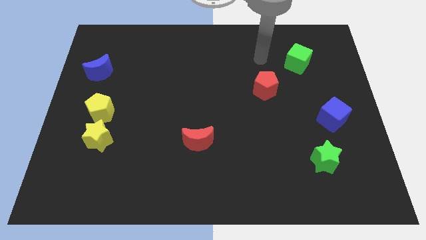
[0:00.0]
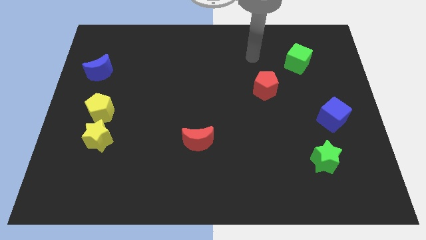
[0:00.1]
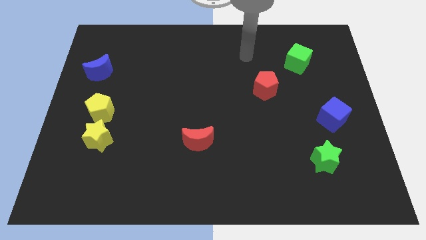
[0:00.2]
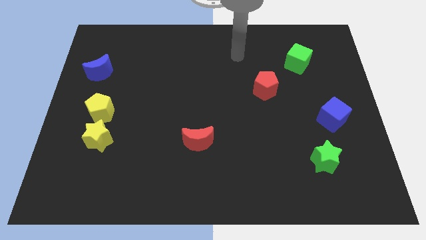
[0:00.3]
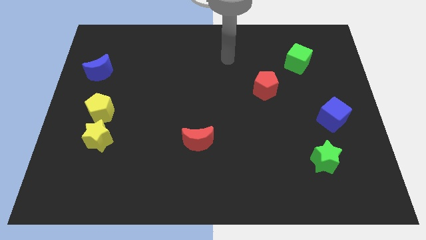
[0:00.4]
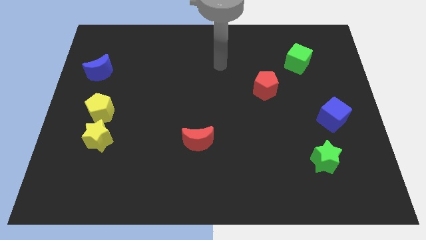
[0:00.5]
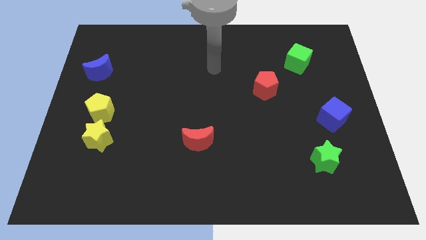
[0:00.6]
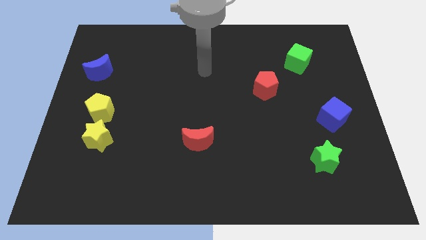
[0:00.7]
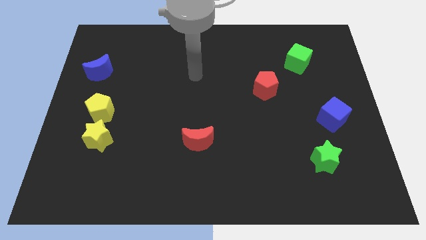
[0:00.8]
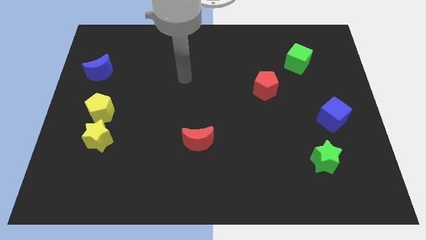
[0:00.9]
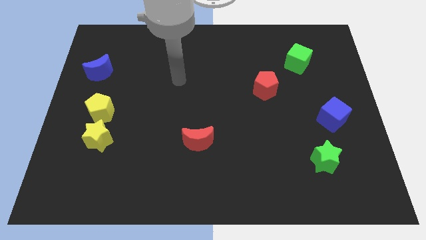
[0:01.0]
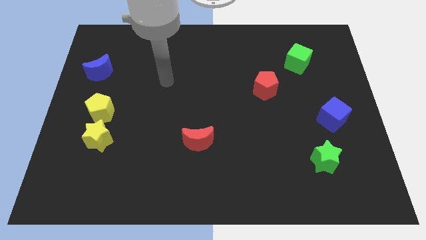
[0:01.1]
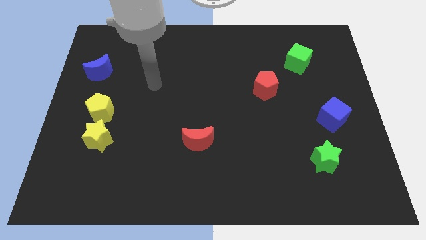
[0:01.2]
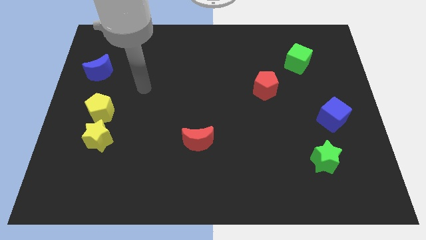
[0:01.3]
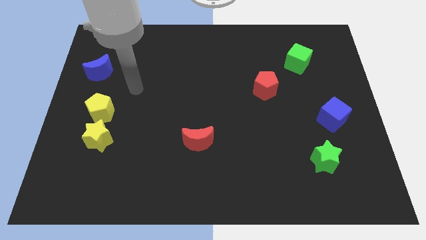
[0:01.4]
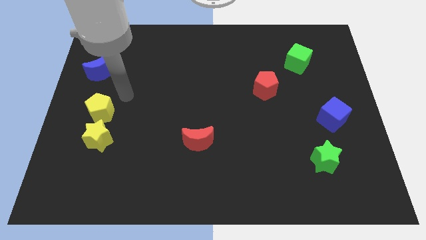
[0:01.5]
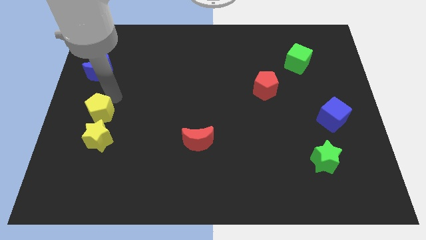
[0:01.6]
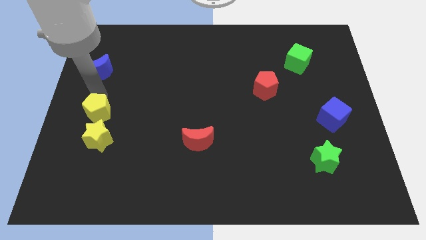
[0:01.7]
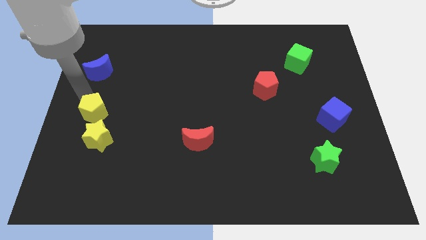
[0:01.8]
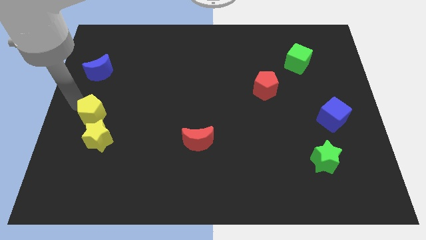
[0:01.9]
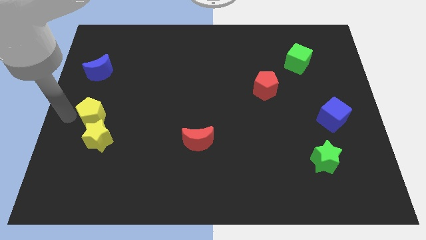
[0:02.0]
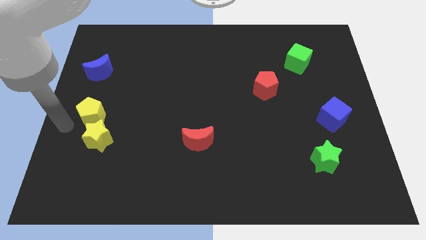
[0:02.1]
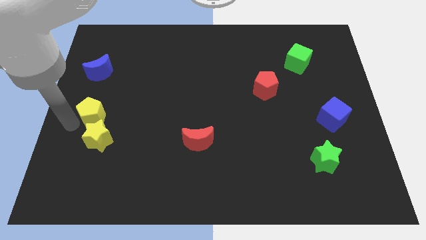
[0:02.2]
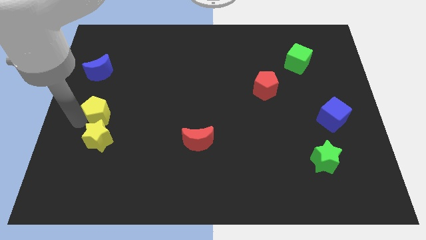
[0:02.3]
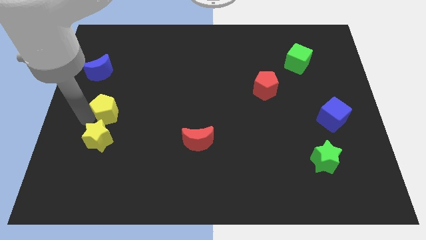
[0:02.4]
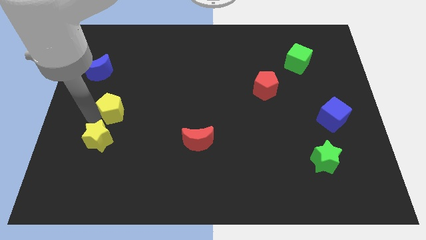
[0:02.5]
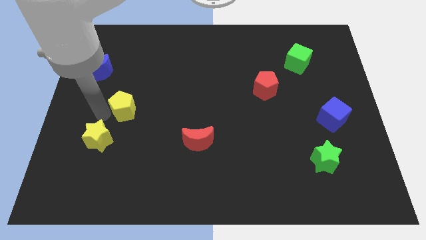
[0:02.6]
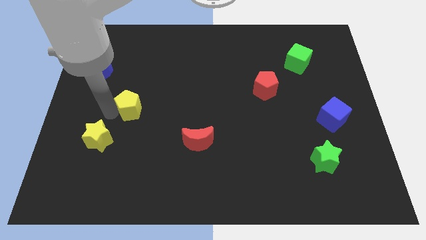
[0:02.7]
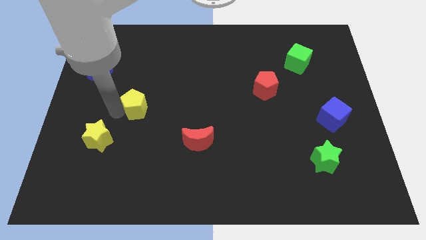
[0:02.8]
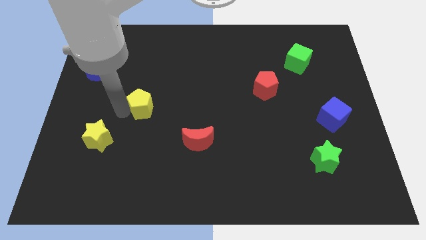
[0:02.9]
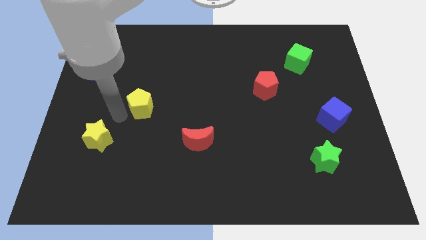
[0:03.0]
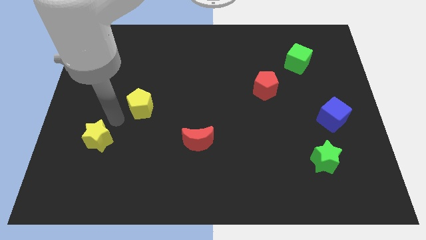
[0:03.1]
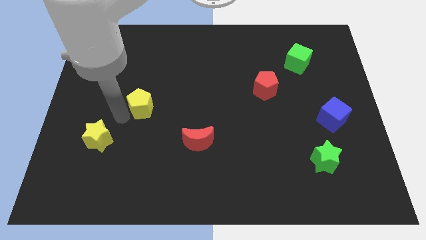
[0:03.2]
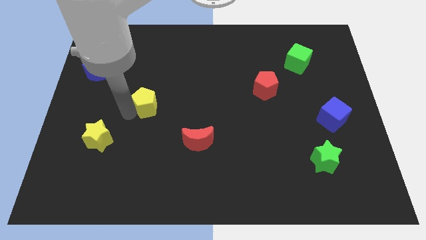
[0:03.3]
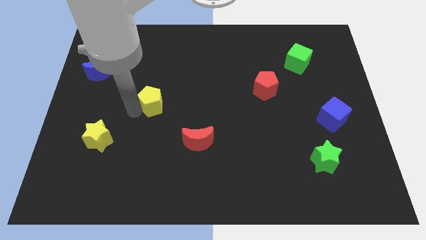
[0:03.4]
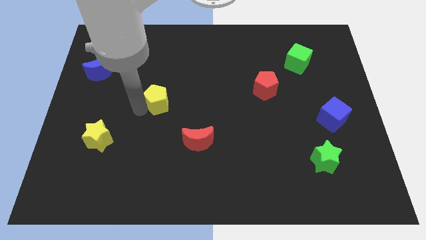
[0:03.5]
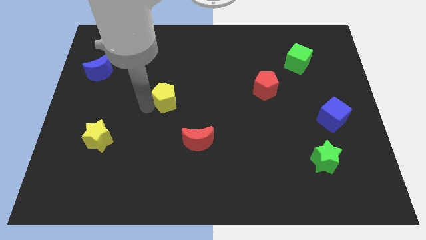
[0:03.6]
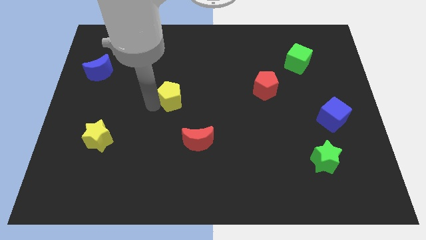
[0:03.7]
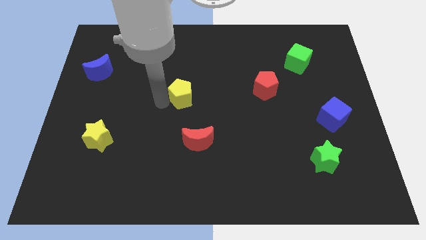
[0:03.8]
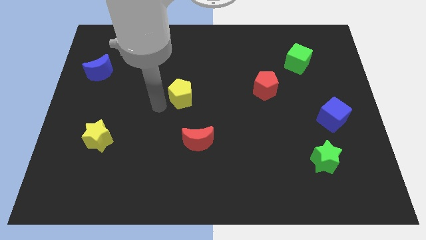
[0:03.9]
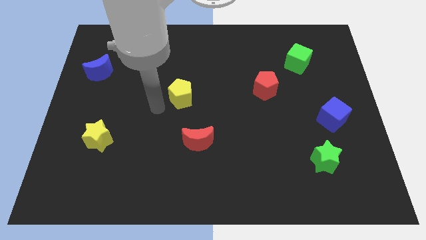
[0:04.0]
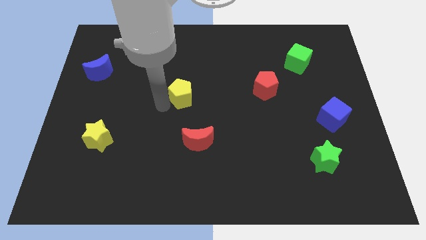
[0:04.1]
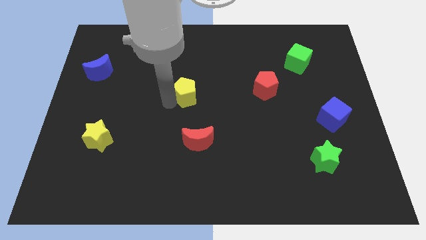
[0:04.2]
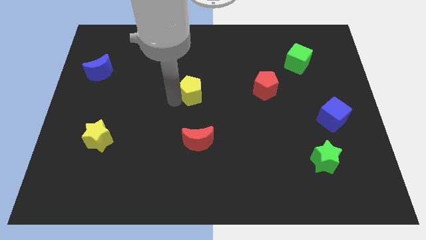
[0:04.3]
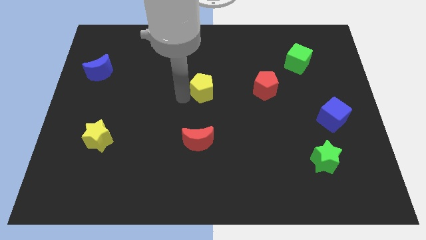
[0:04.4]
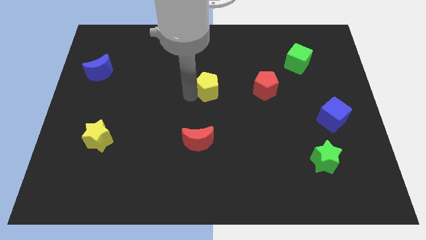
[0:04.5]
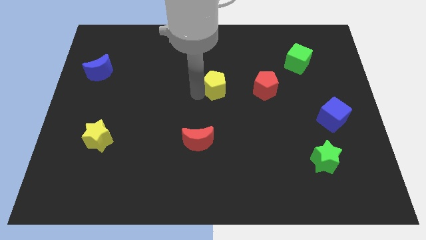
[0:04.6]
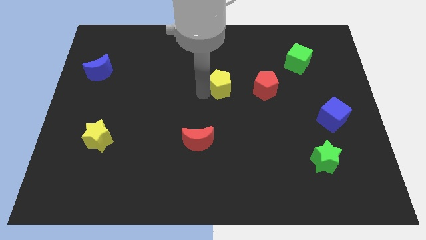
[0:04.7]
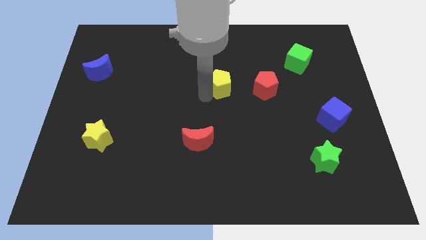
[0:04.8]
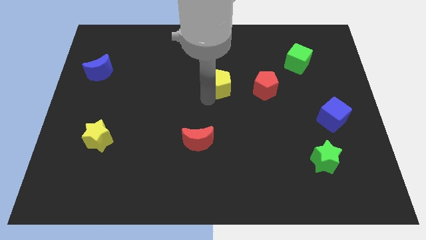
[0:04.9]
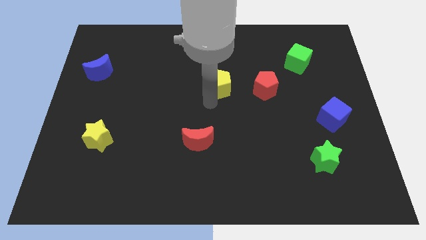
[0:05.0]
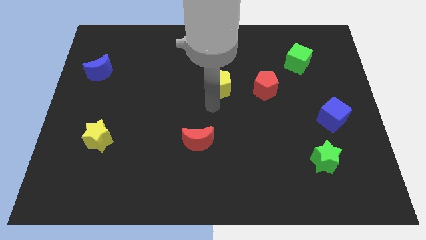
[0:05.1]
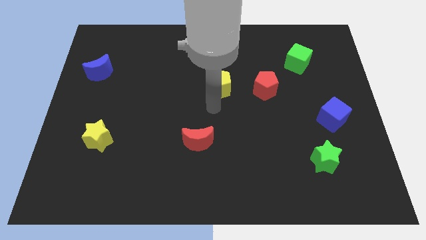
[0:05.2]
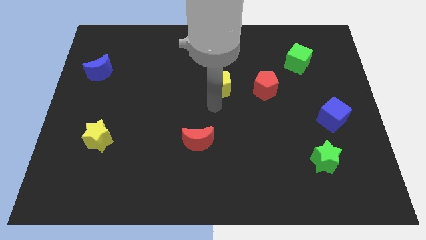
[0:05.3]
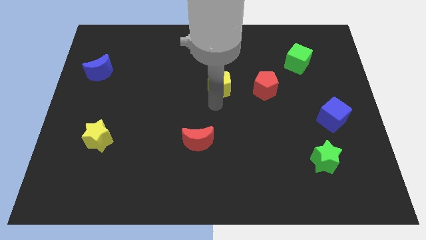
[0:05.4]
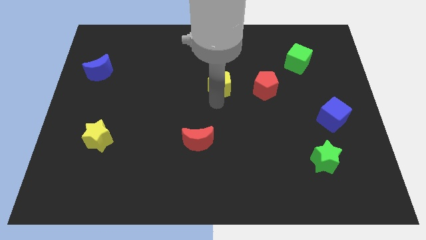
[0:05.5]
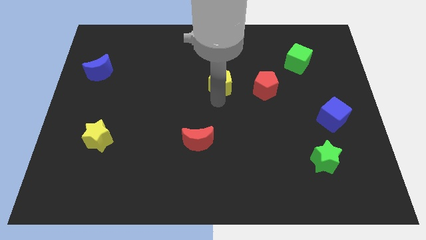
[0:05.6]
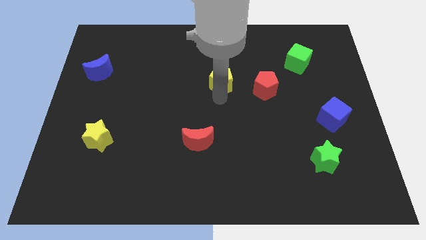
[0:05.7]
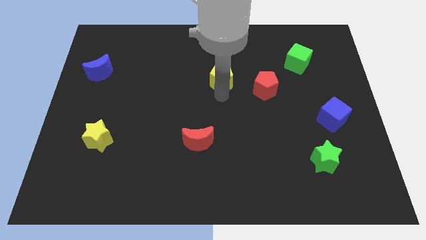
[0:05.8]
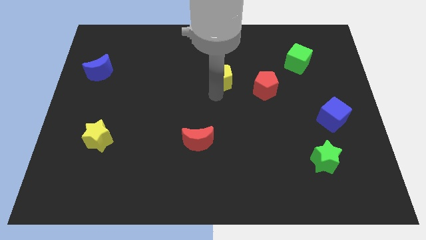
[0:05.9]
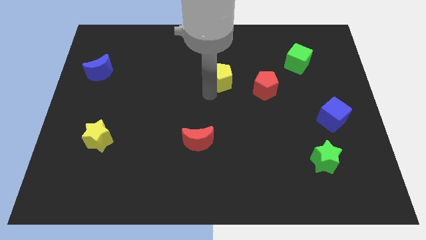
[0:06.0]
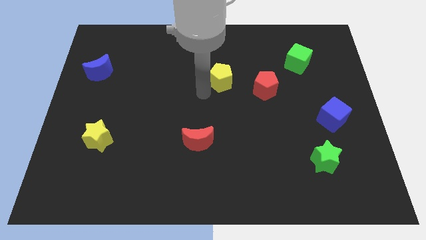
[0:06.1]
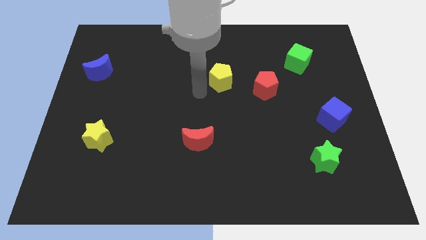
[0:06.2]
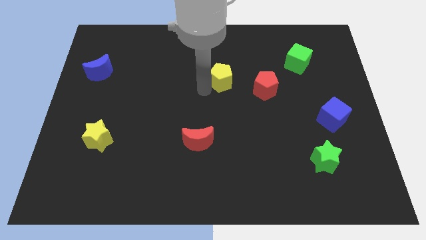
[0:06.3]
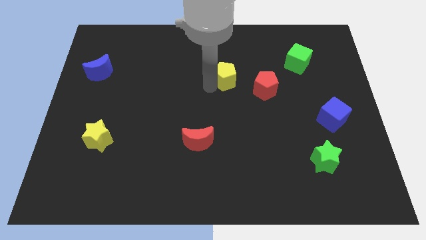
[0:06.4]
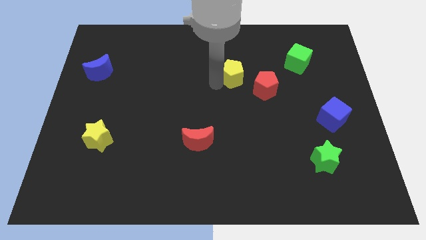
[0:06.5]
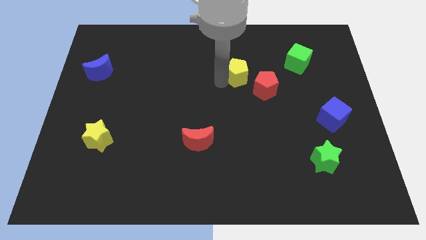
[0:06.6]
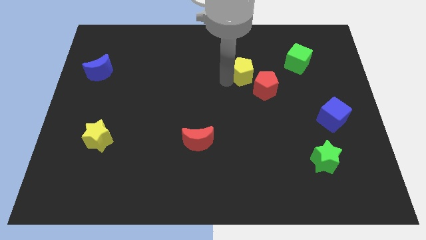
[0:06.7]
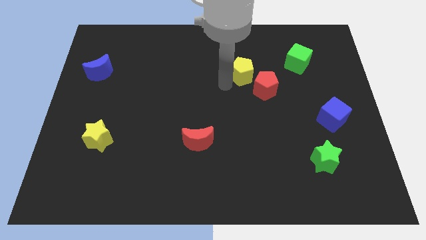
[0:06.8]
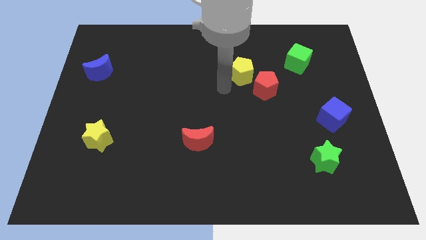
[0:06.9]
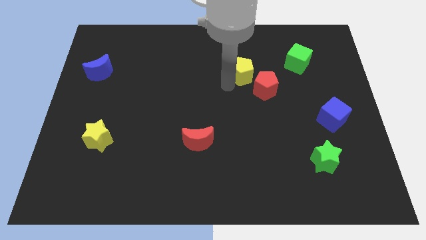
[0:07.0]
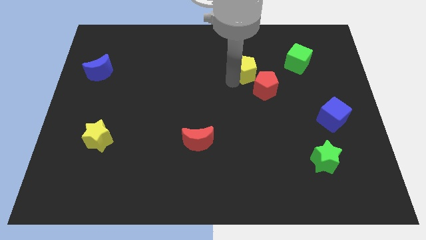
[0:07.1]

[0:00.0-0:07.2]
put the yellow pentagon just left of the green cube

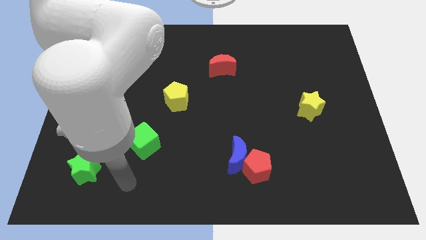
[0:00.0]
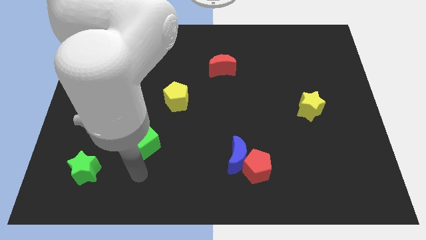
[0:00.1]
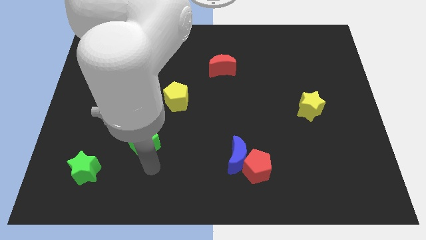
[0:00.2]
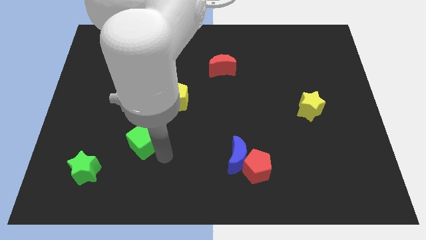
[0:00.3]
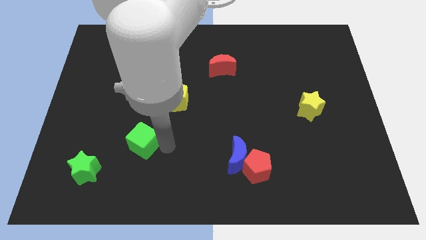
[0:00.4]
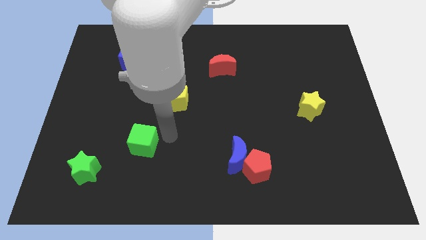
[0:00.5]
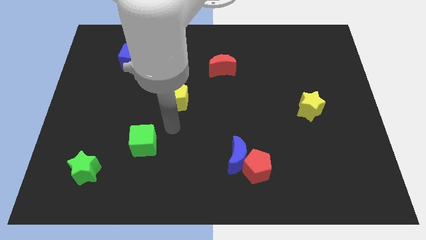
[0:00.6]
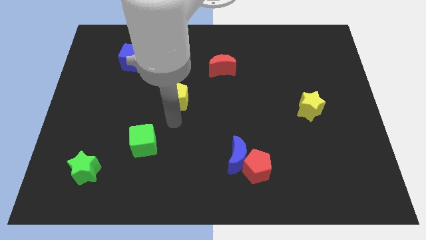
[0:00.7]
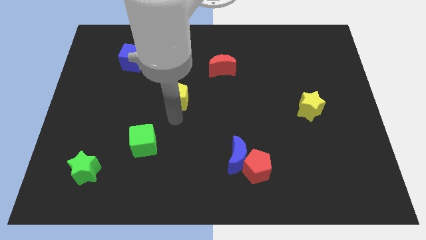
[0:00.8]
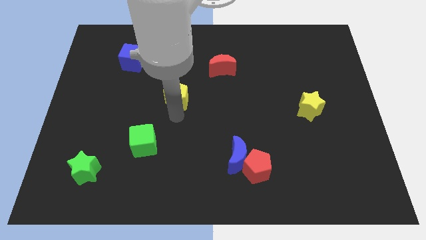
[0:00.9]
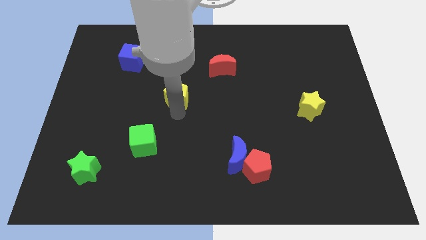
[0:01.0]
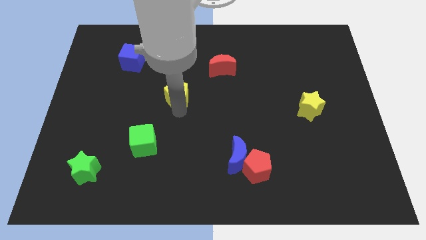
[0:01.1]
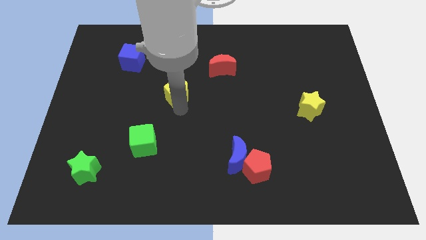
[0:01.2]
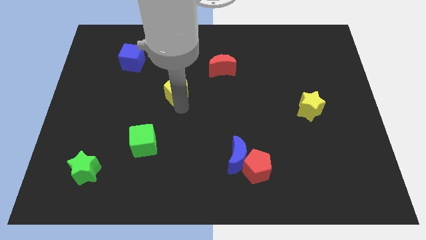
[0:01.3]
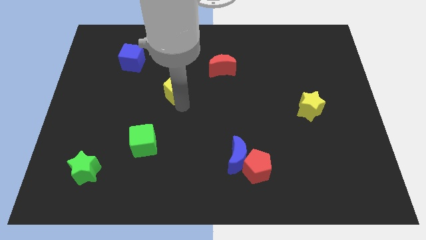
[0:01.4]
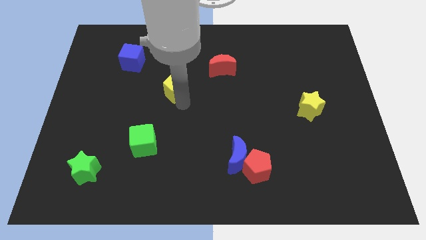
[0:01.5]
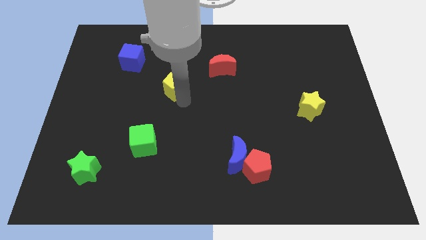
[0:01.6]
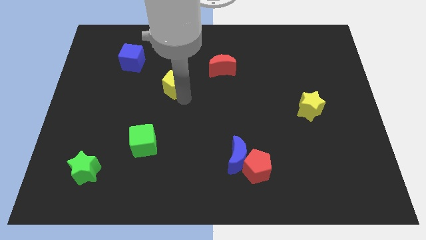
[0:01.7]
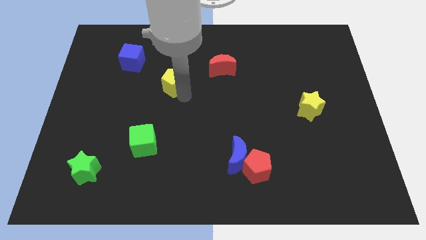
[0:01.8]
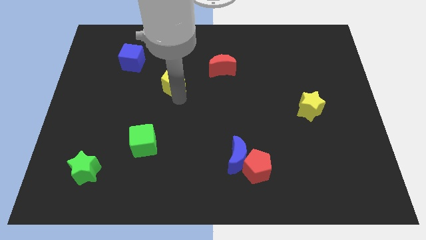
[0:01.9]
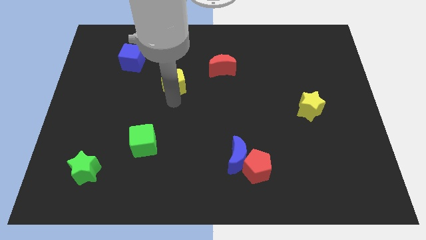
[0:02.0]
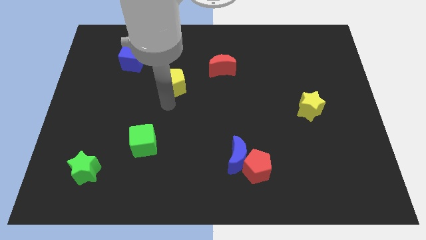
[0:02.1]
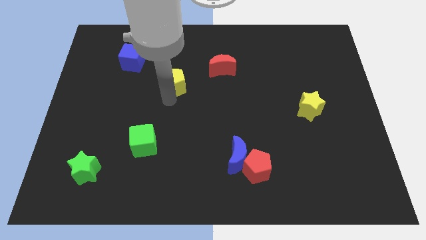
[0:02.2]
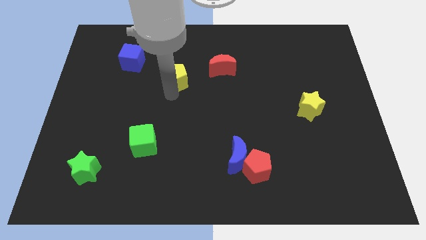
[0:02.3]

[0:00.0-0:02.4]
move the yellow pentagon just left of the red moon
